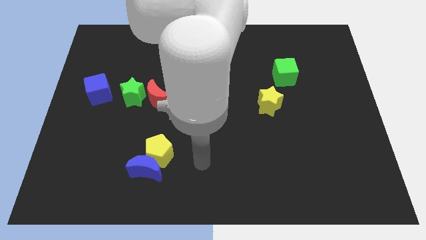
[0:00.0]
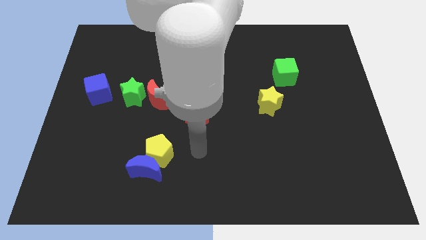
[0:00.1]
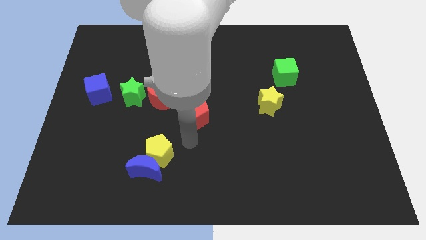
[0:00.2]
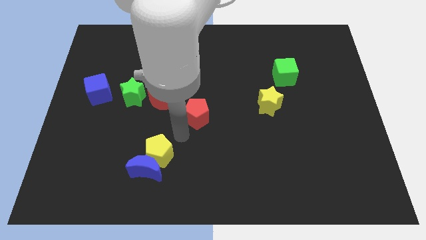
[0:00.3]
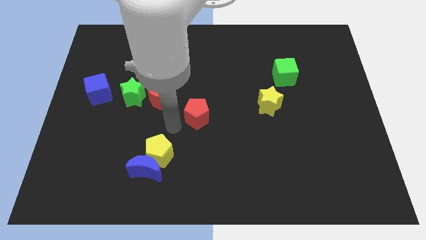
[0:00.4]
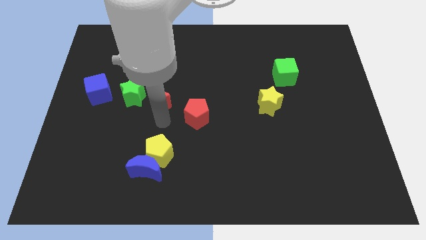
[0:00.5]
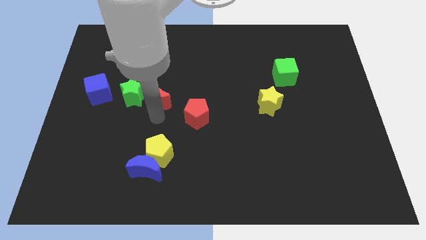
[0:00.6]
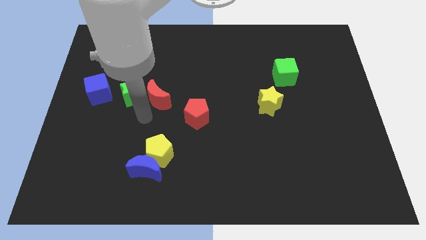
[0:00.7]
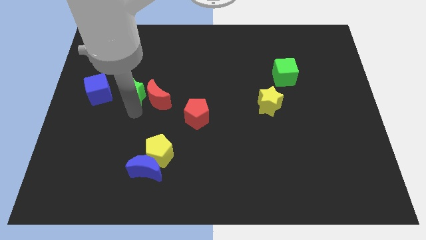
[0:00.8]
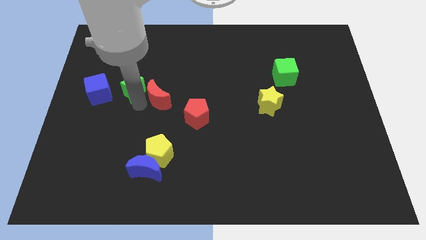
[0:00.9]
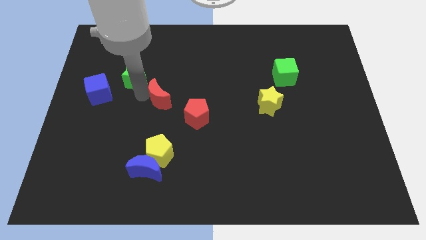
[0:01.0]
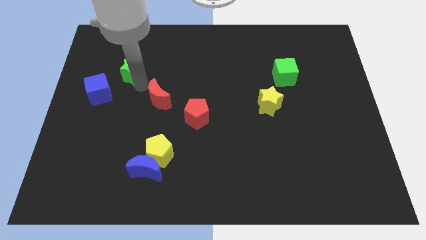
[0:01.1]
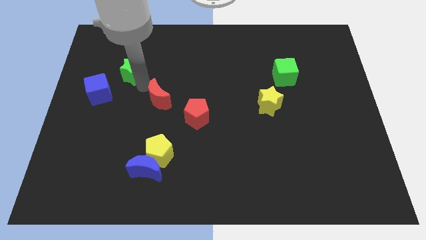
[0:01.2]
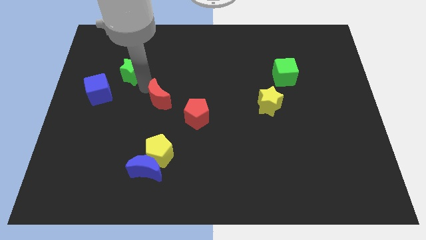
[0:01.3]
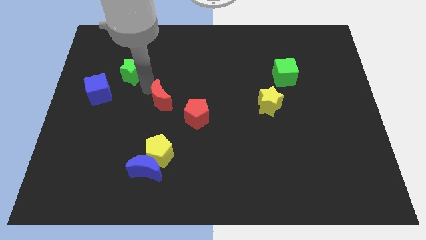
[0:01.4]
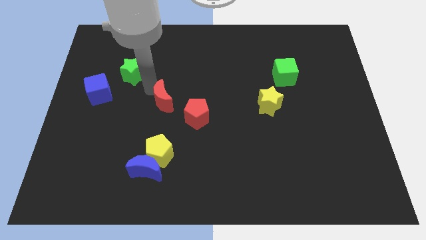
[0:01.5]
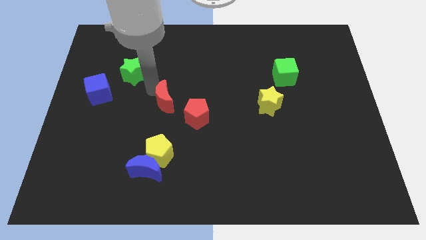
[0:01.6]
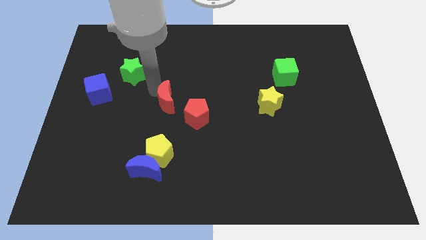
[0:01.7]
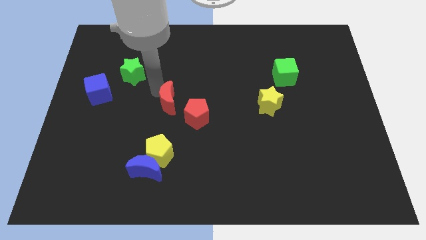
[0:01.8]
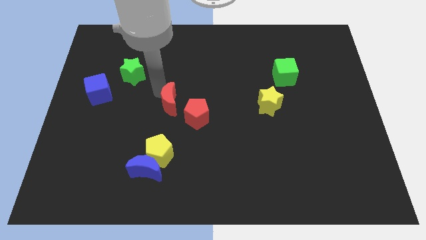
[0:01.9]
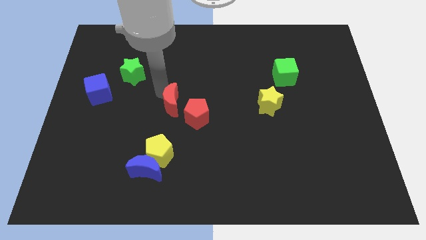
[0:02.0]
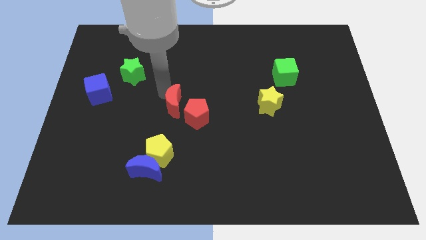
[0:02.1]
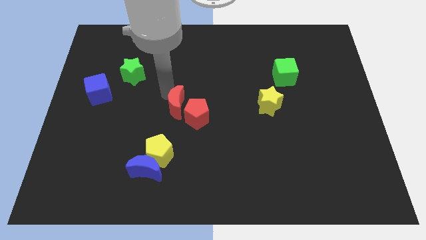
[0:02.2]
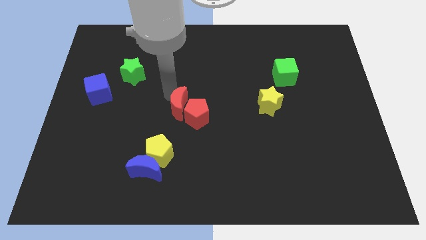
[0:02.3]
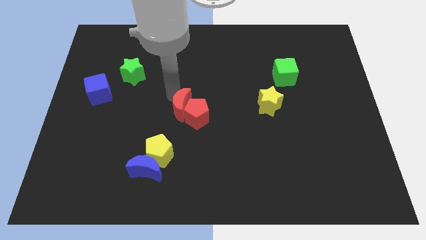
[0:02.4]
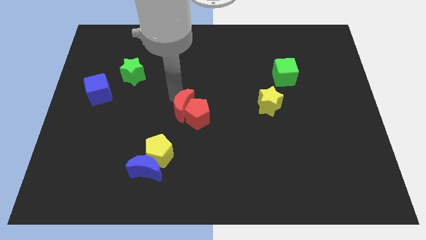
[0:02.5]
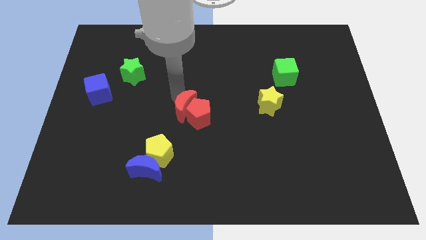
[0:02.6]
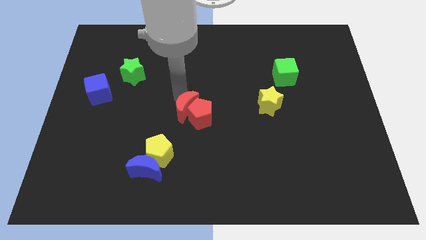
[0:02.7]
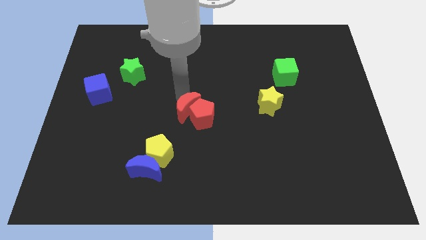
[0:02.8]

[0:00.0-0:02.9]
move the red moon diagonally down and right a bit

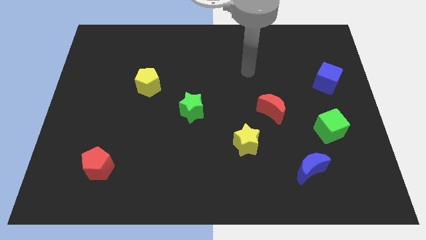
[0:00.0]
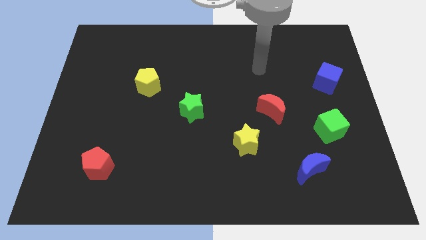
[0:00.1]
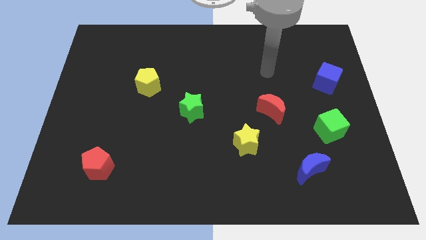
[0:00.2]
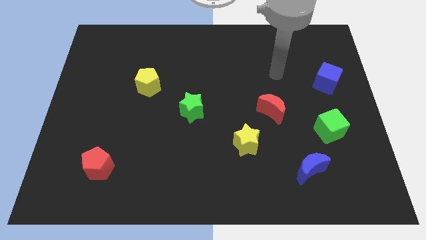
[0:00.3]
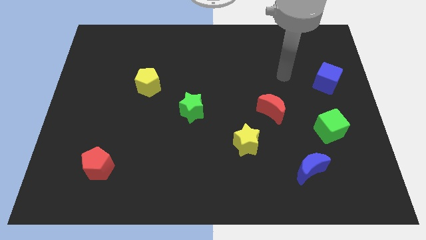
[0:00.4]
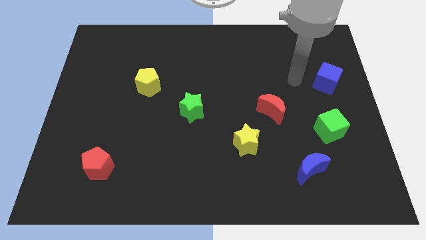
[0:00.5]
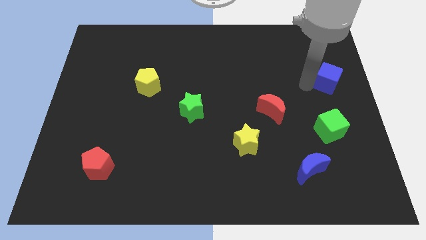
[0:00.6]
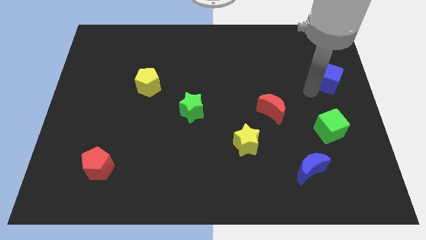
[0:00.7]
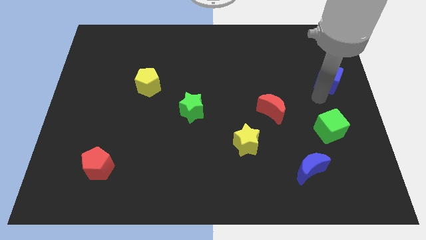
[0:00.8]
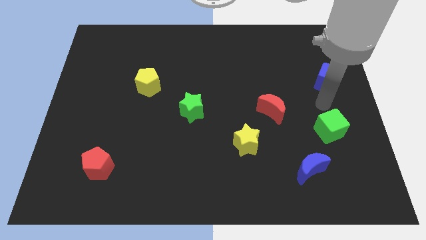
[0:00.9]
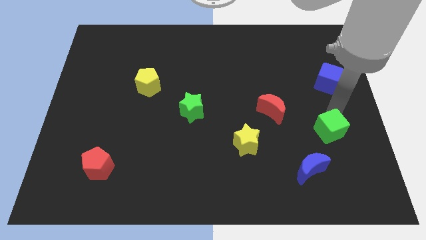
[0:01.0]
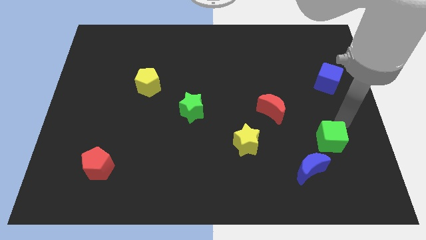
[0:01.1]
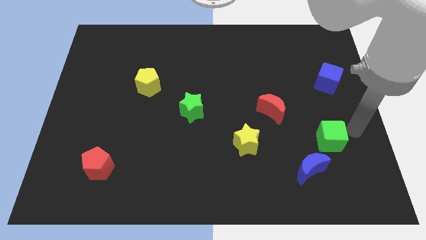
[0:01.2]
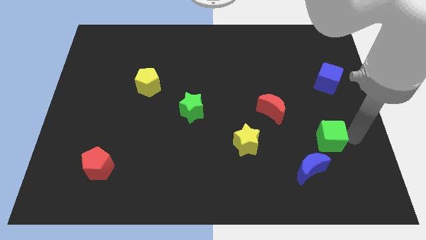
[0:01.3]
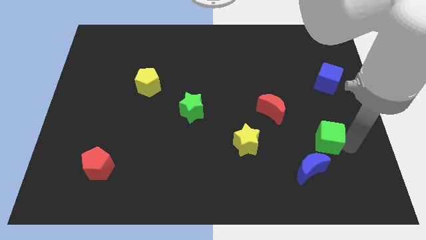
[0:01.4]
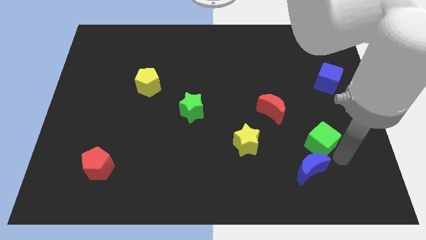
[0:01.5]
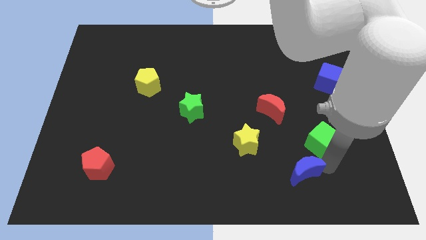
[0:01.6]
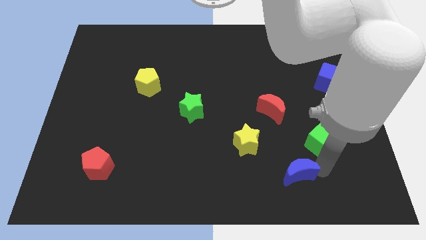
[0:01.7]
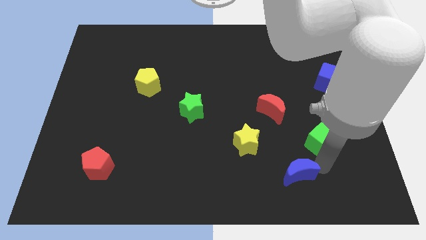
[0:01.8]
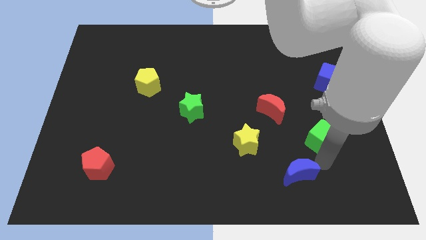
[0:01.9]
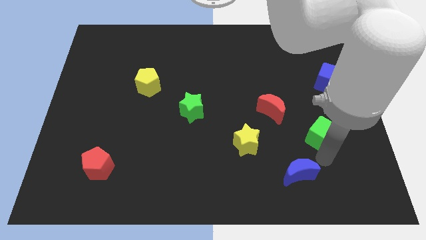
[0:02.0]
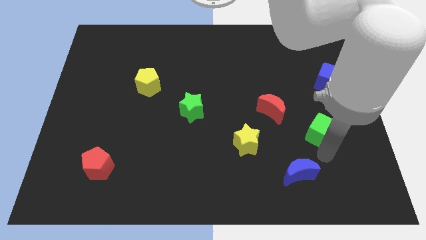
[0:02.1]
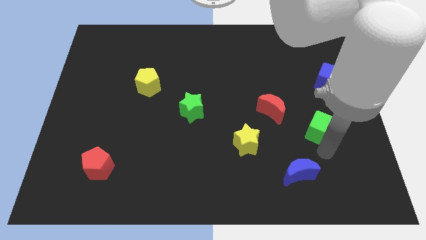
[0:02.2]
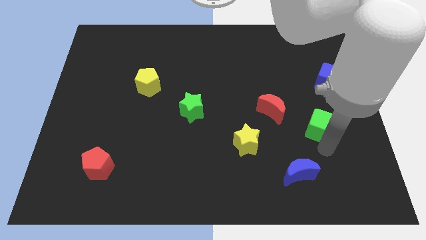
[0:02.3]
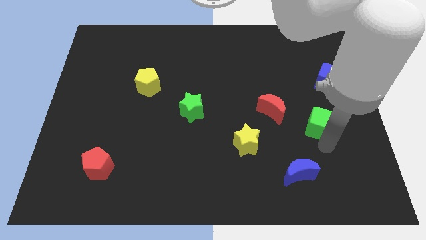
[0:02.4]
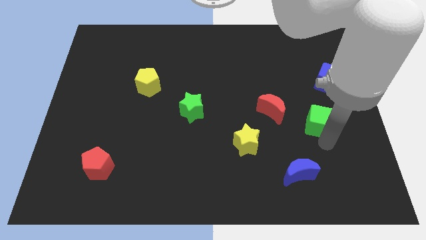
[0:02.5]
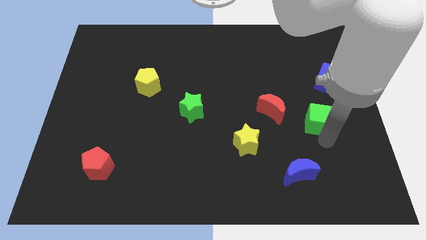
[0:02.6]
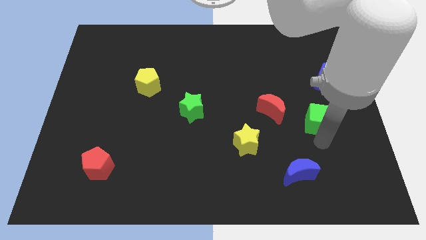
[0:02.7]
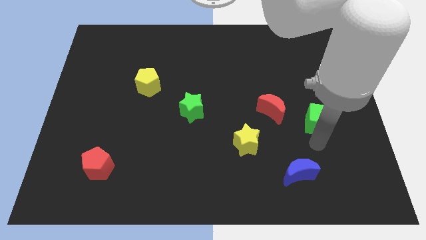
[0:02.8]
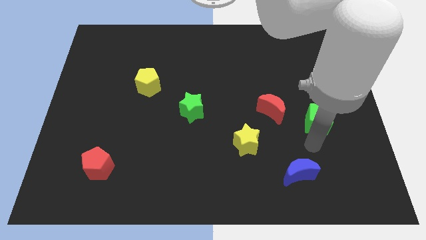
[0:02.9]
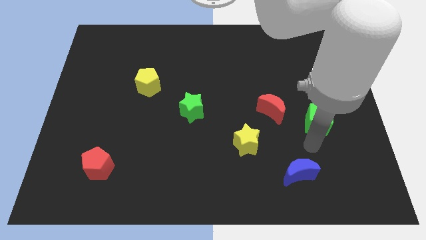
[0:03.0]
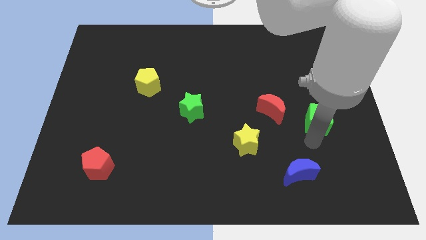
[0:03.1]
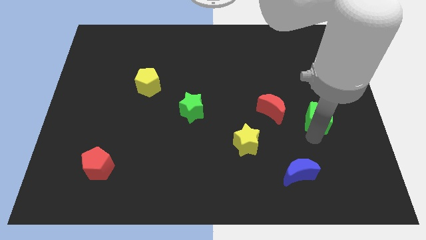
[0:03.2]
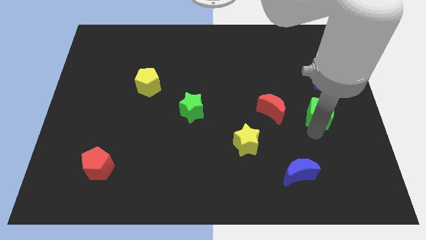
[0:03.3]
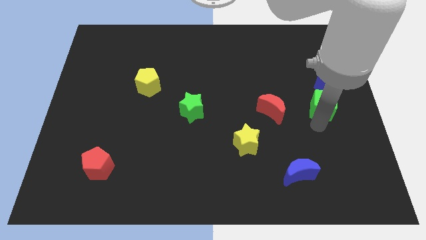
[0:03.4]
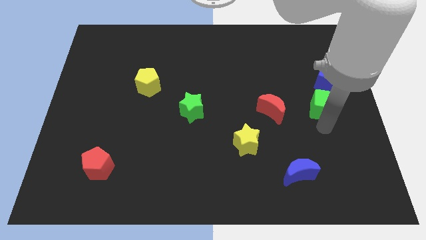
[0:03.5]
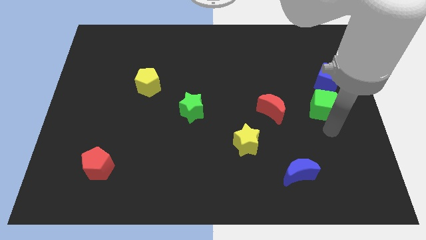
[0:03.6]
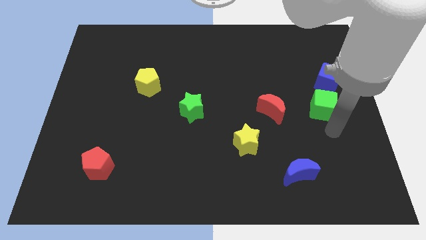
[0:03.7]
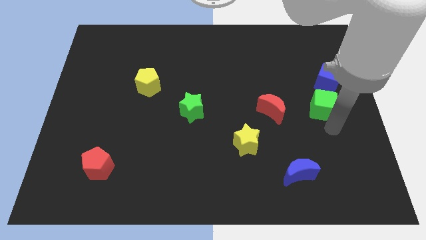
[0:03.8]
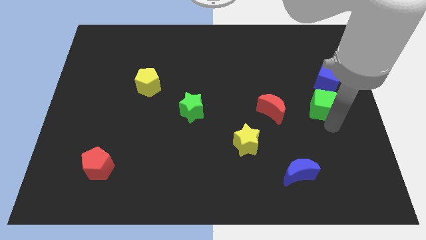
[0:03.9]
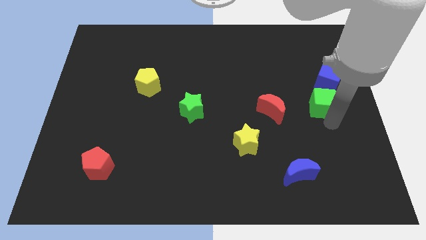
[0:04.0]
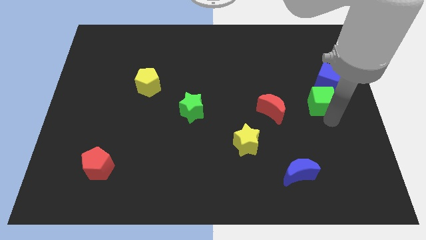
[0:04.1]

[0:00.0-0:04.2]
slightly push the green cube up

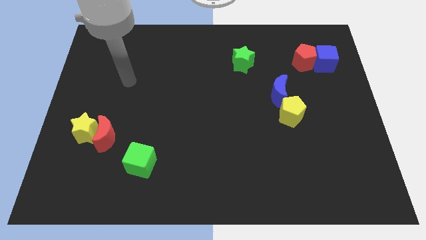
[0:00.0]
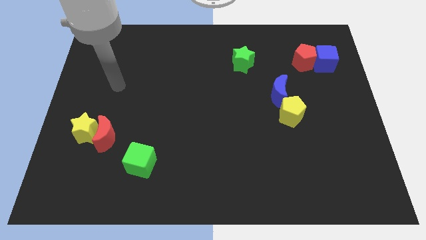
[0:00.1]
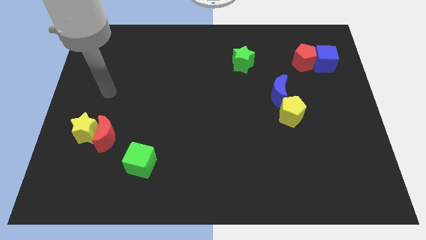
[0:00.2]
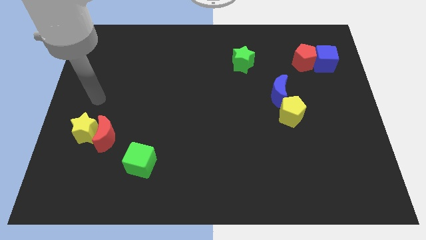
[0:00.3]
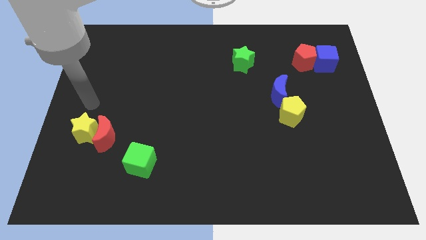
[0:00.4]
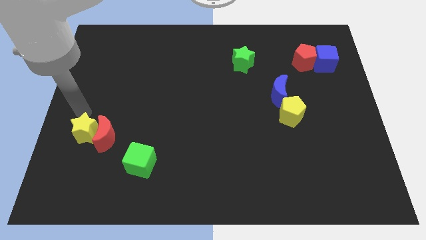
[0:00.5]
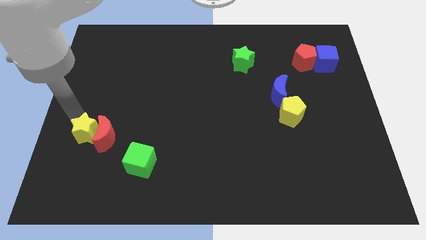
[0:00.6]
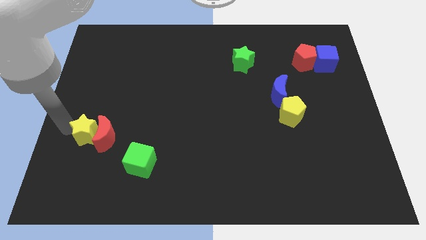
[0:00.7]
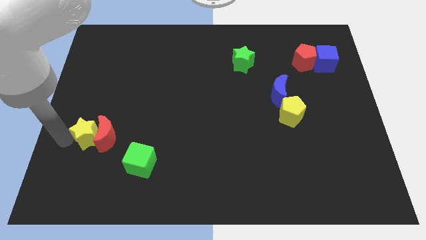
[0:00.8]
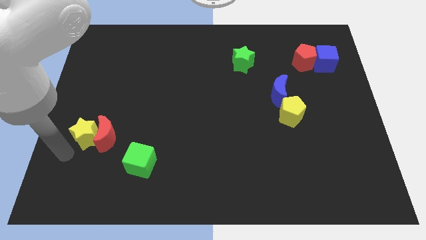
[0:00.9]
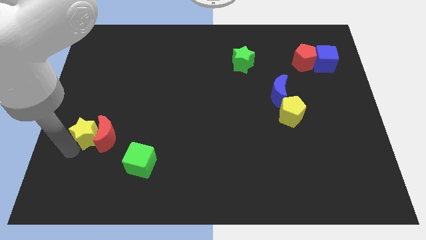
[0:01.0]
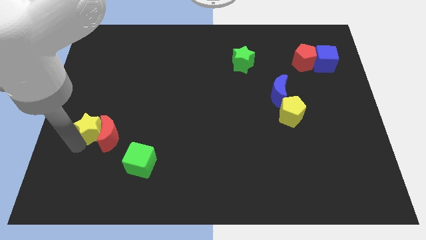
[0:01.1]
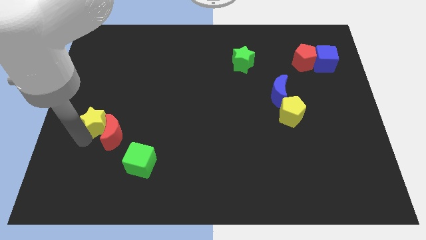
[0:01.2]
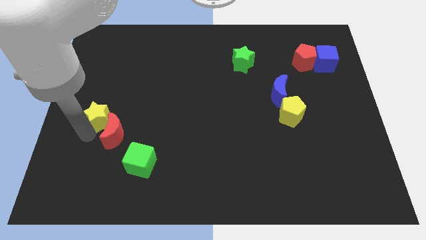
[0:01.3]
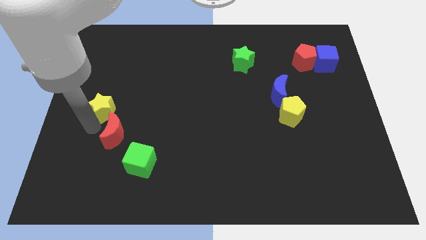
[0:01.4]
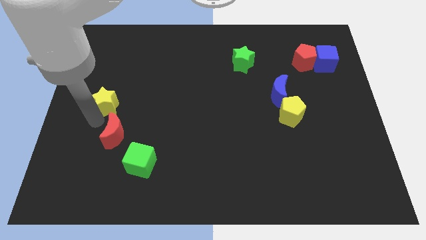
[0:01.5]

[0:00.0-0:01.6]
slightly push the yellow star up and to the right
